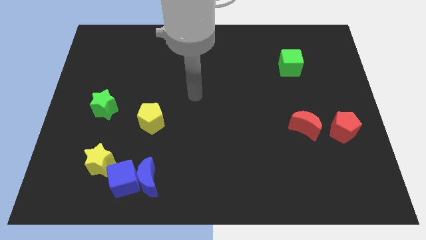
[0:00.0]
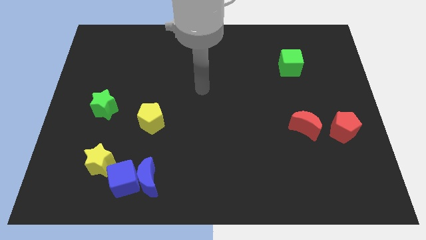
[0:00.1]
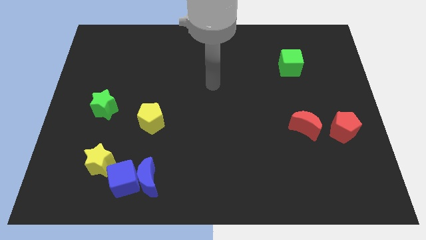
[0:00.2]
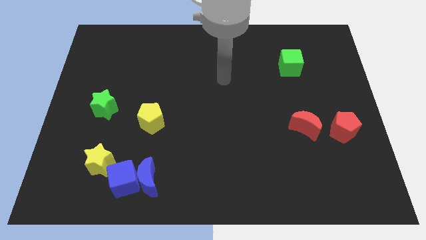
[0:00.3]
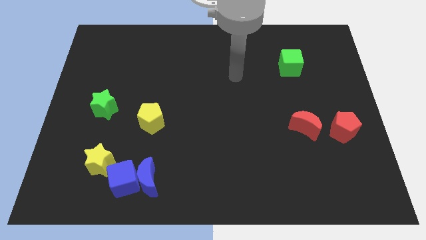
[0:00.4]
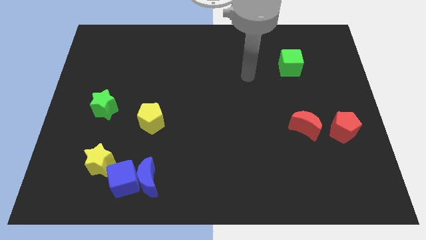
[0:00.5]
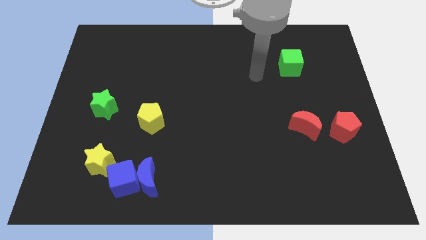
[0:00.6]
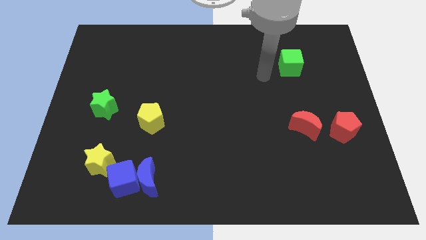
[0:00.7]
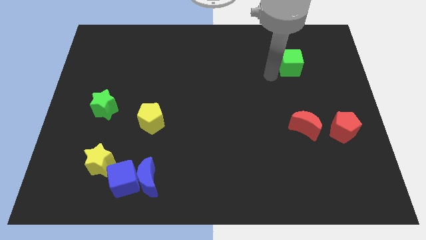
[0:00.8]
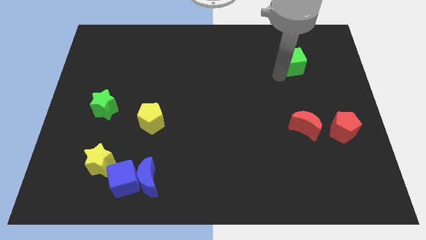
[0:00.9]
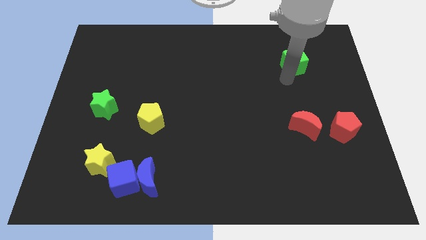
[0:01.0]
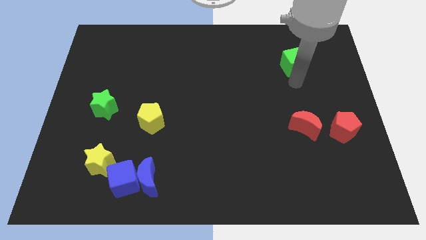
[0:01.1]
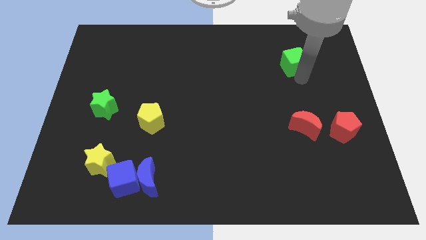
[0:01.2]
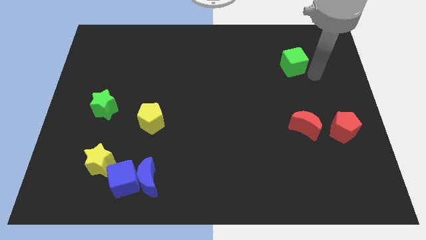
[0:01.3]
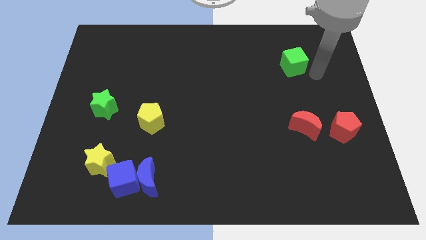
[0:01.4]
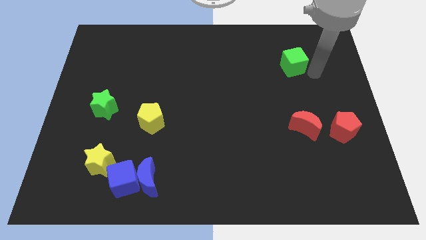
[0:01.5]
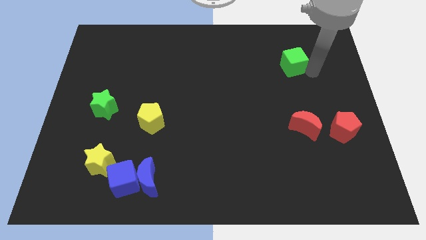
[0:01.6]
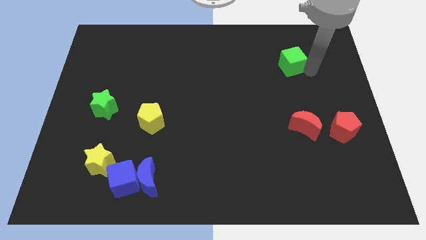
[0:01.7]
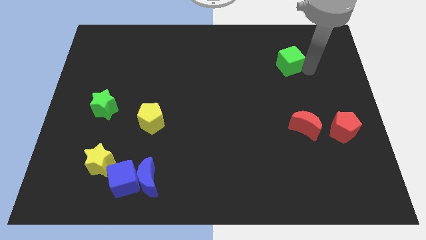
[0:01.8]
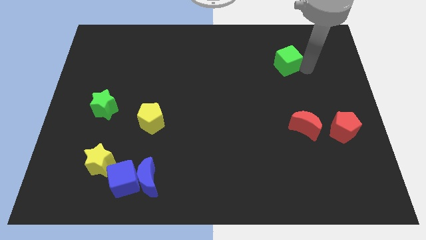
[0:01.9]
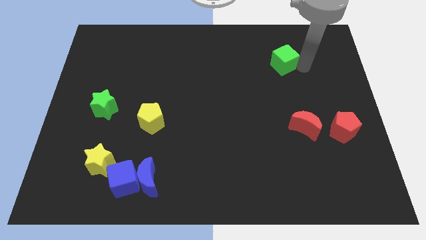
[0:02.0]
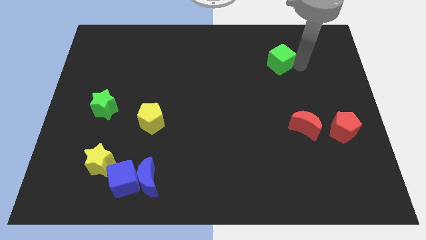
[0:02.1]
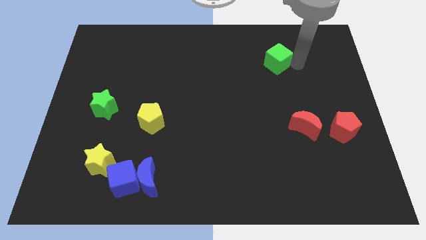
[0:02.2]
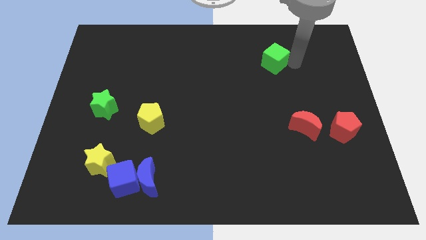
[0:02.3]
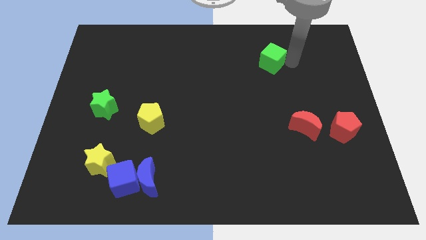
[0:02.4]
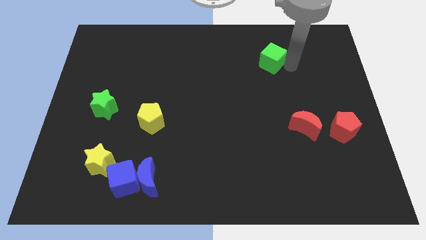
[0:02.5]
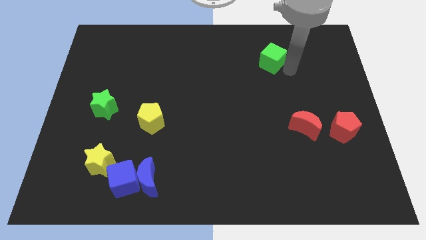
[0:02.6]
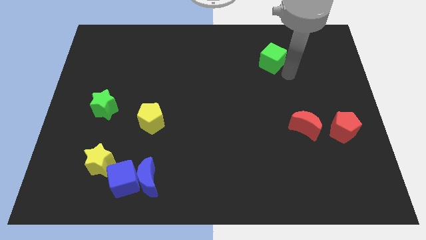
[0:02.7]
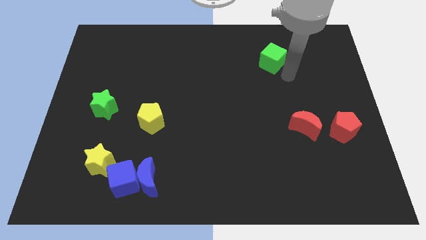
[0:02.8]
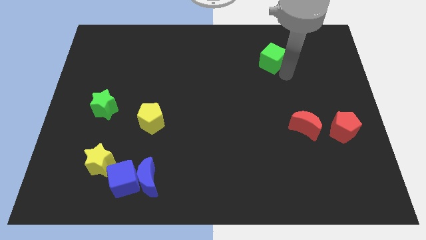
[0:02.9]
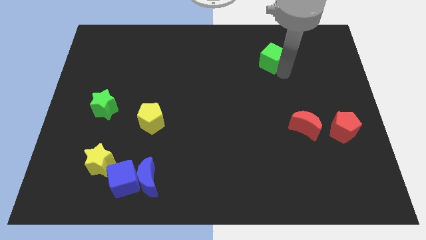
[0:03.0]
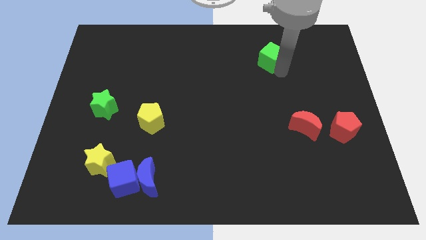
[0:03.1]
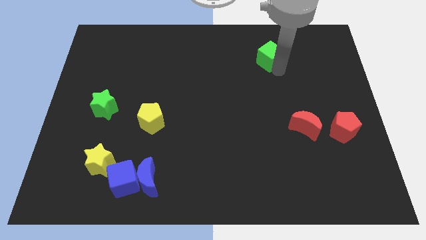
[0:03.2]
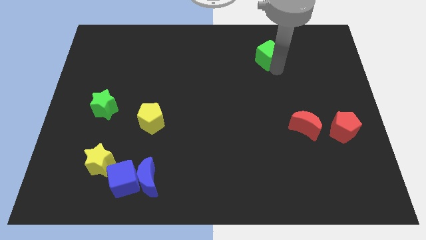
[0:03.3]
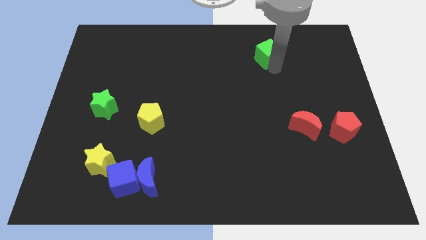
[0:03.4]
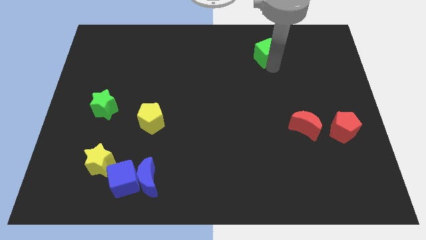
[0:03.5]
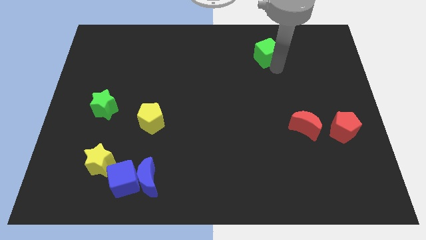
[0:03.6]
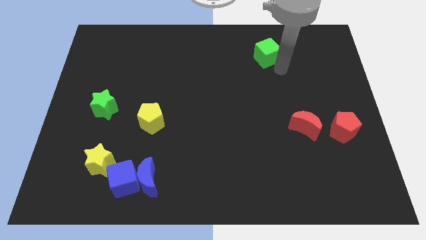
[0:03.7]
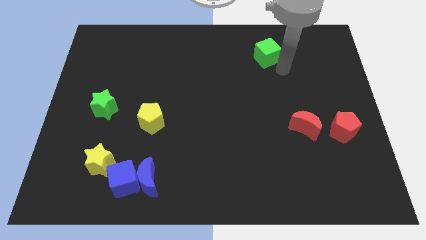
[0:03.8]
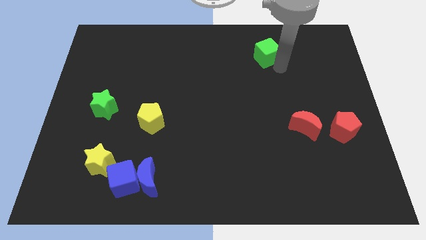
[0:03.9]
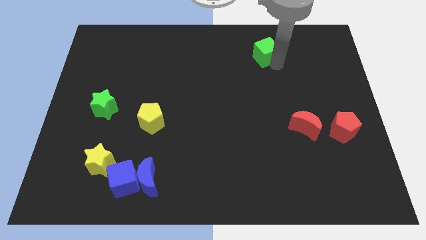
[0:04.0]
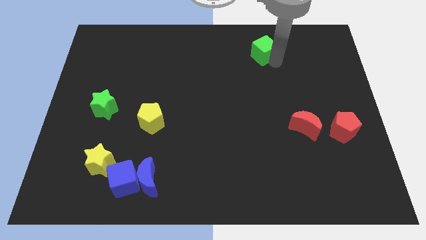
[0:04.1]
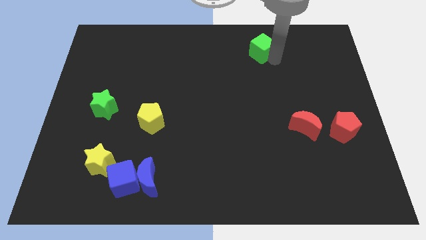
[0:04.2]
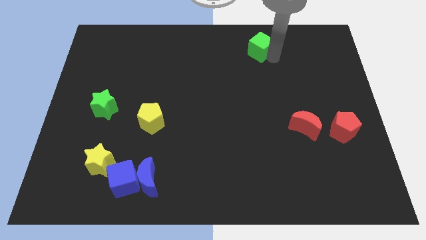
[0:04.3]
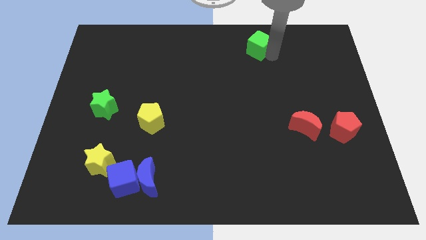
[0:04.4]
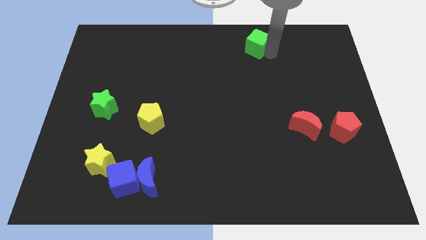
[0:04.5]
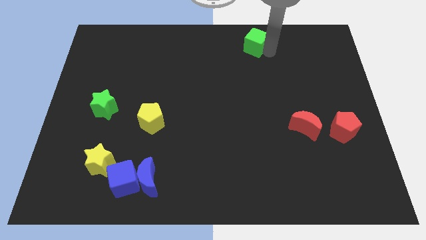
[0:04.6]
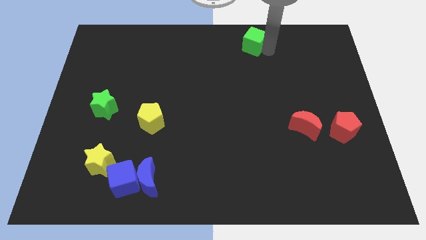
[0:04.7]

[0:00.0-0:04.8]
slide the green cube to the top side

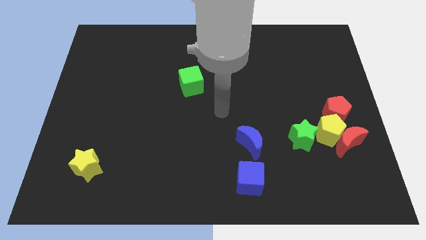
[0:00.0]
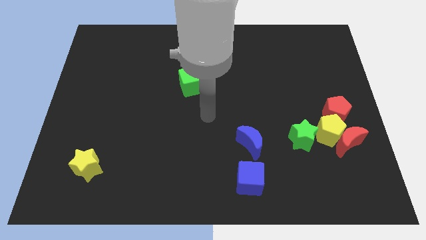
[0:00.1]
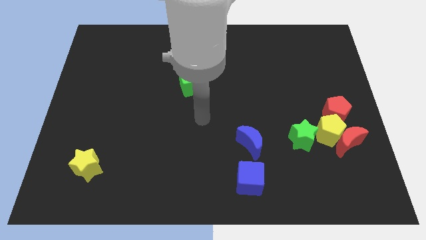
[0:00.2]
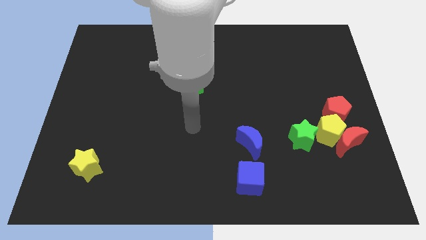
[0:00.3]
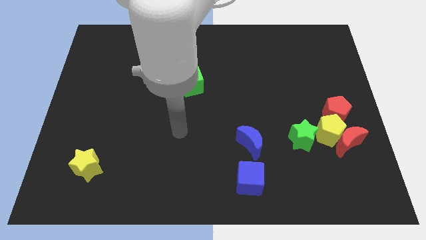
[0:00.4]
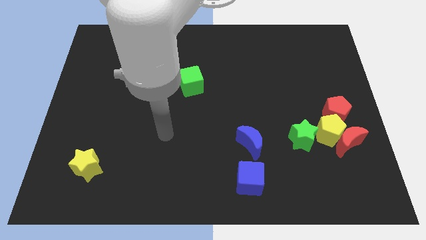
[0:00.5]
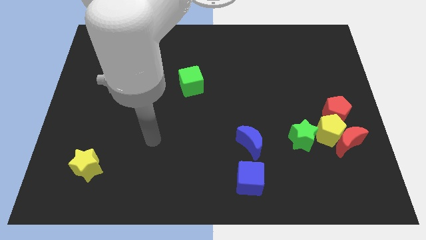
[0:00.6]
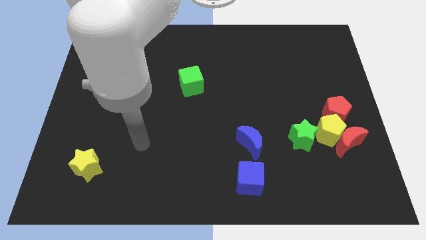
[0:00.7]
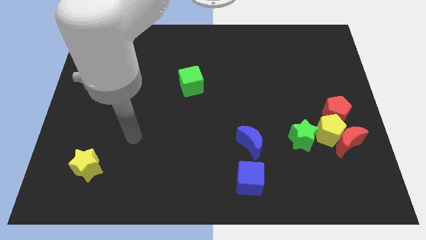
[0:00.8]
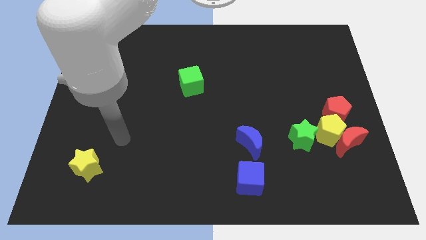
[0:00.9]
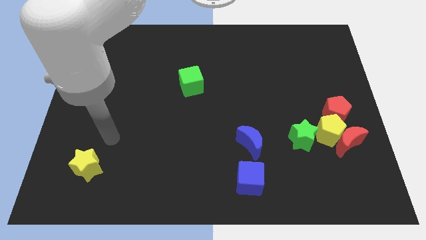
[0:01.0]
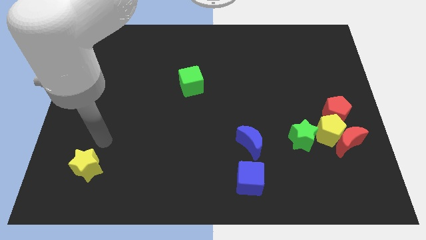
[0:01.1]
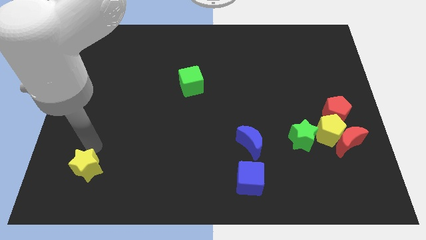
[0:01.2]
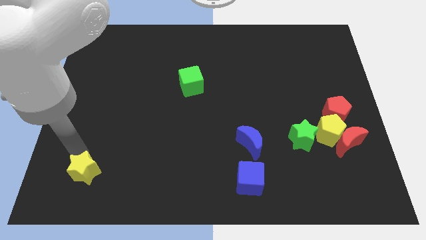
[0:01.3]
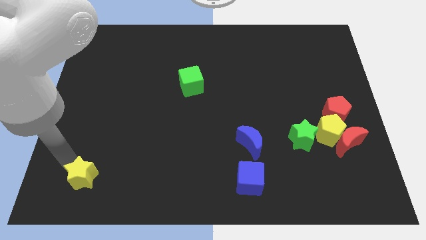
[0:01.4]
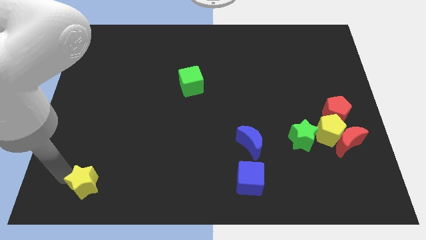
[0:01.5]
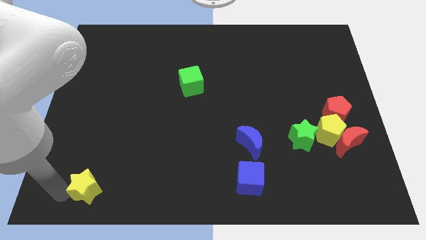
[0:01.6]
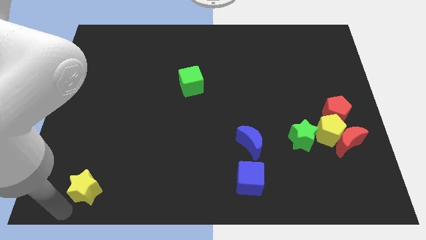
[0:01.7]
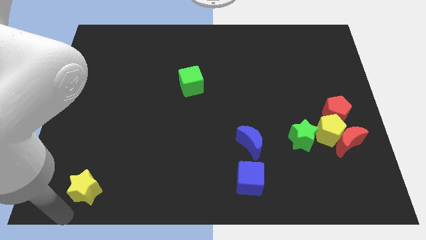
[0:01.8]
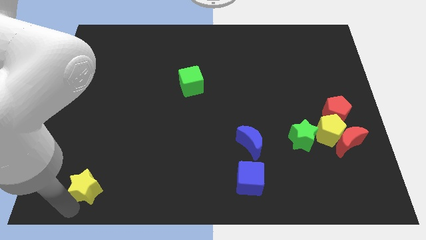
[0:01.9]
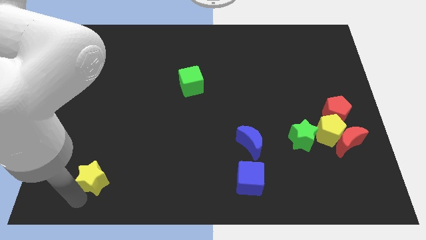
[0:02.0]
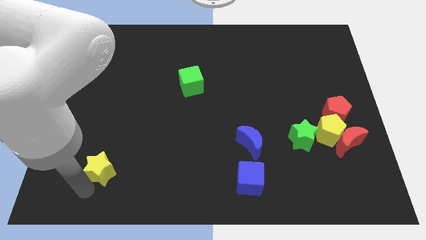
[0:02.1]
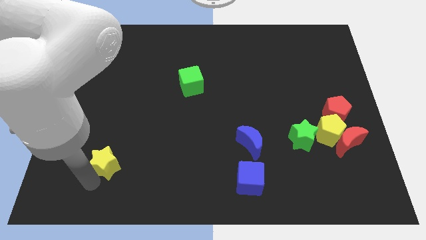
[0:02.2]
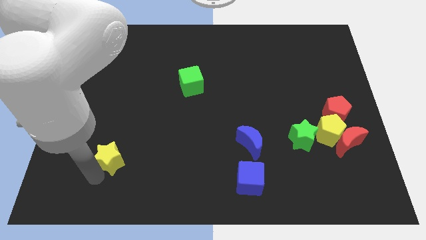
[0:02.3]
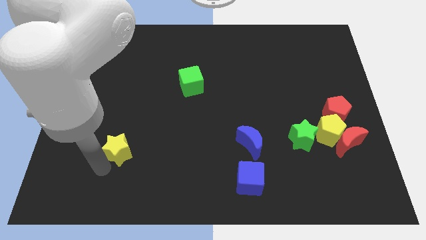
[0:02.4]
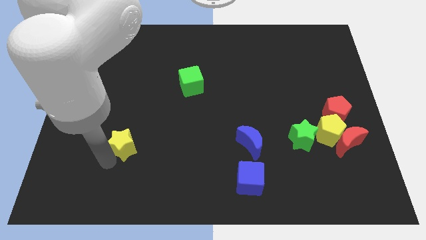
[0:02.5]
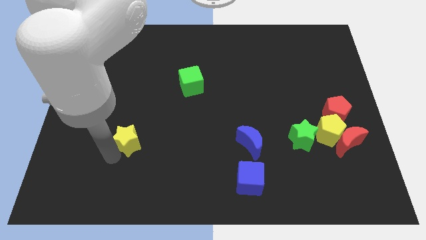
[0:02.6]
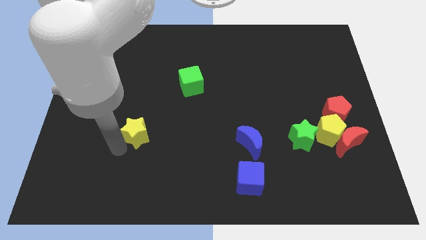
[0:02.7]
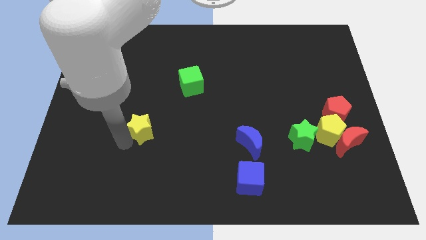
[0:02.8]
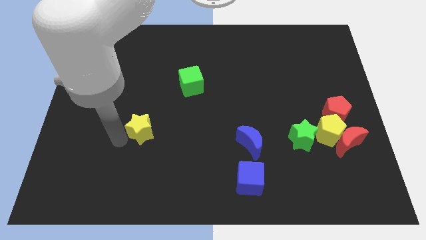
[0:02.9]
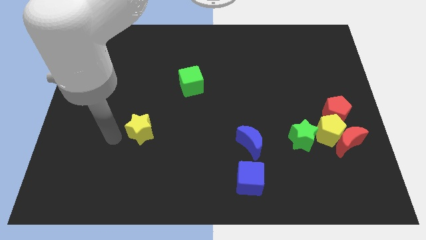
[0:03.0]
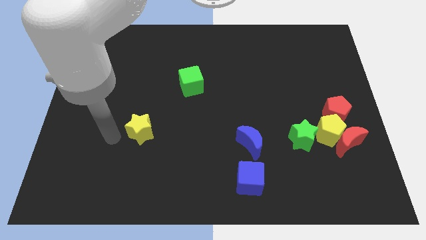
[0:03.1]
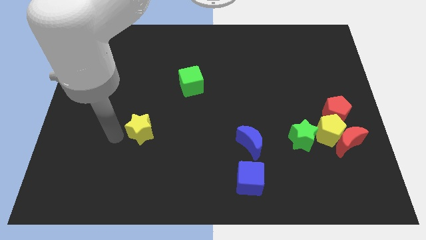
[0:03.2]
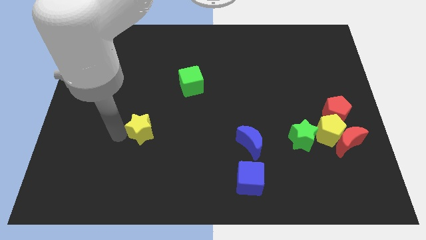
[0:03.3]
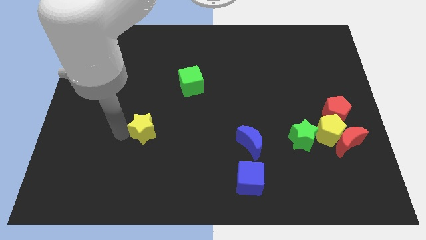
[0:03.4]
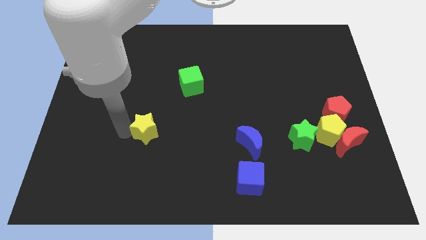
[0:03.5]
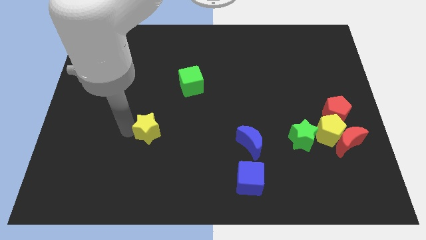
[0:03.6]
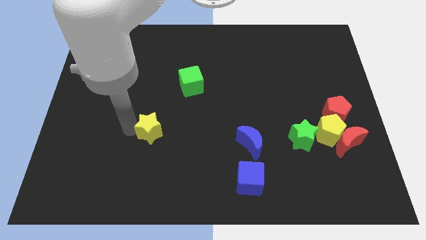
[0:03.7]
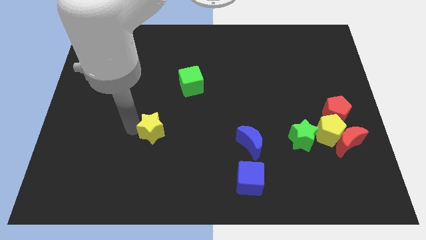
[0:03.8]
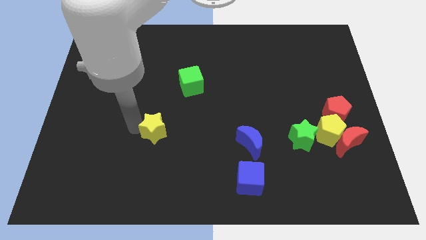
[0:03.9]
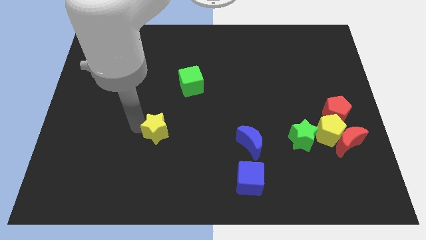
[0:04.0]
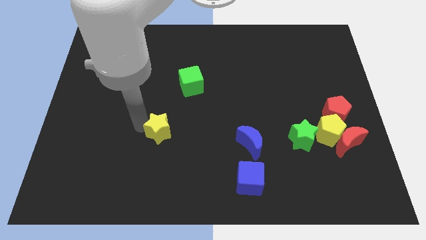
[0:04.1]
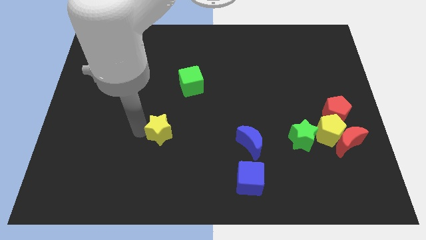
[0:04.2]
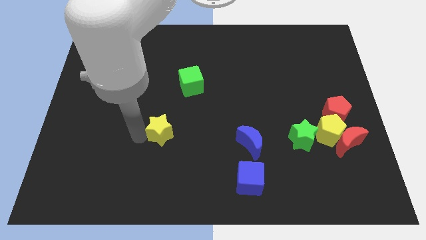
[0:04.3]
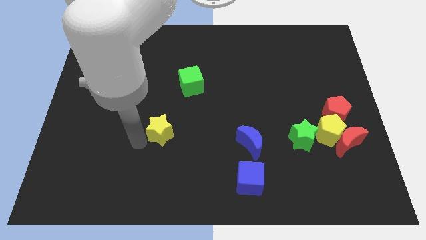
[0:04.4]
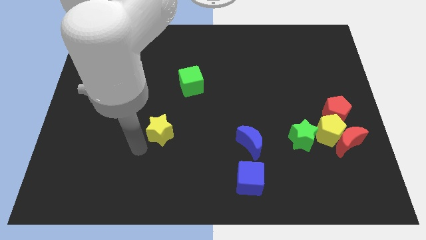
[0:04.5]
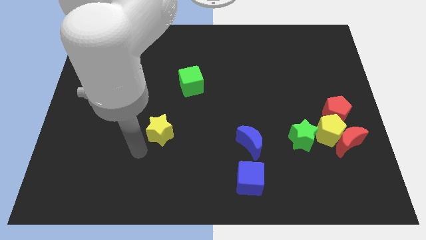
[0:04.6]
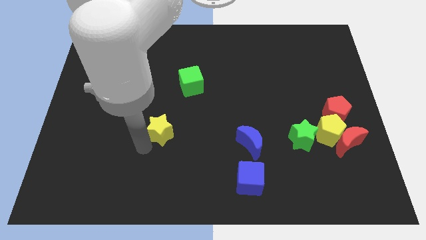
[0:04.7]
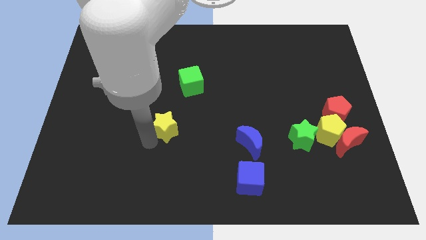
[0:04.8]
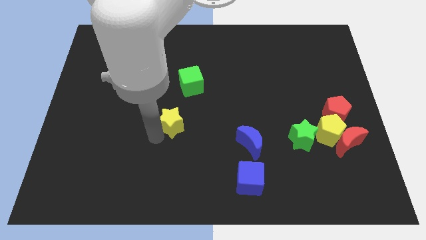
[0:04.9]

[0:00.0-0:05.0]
push the yellow star to the center of the board
